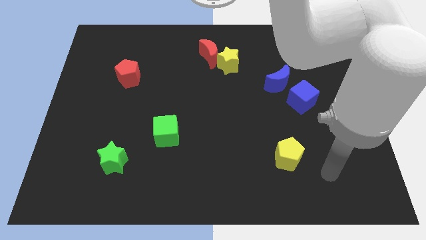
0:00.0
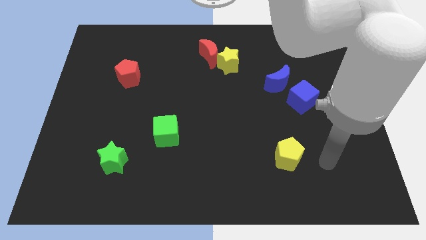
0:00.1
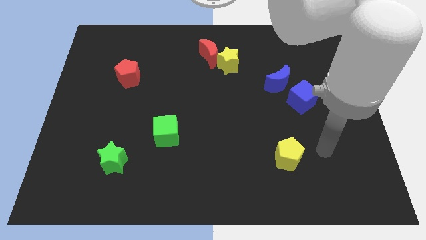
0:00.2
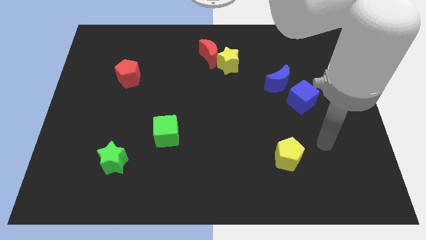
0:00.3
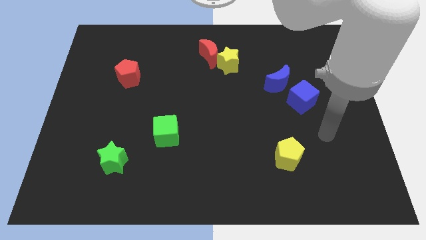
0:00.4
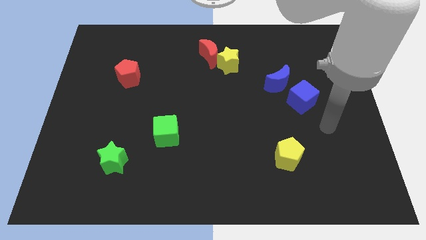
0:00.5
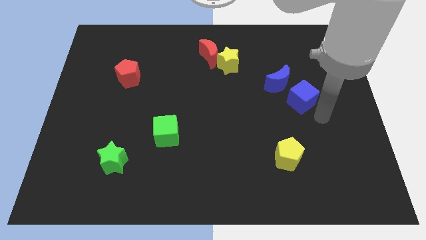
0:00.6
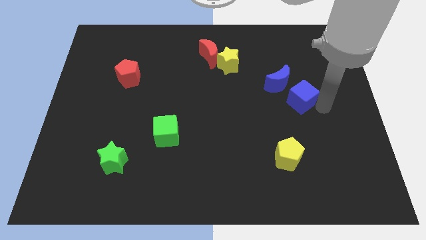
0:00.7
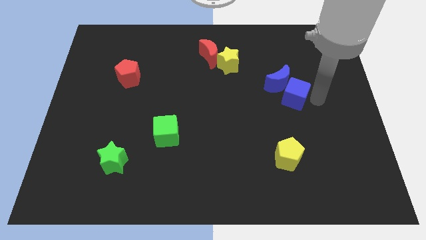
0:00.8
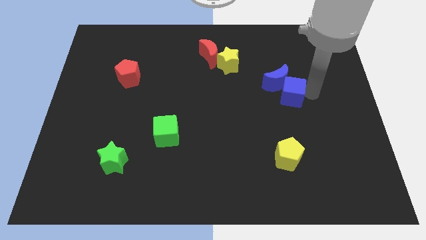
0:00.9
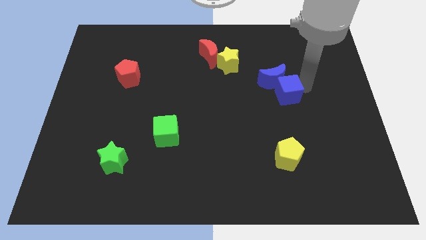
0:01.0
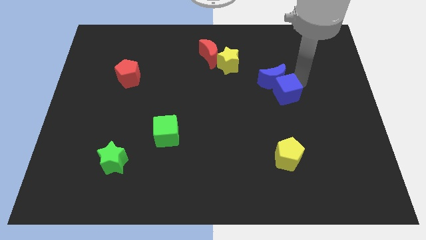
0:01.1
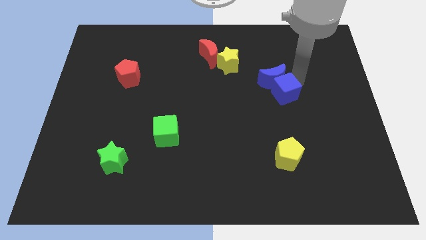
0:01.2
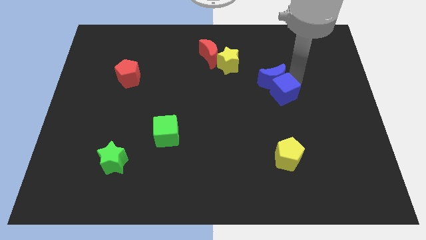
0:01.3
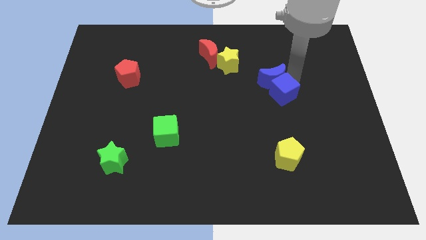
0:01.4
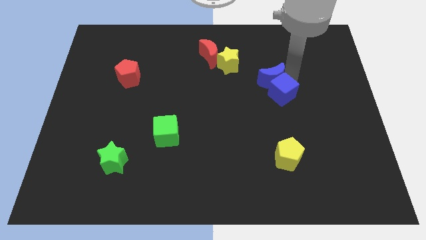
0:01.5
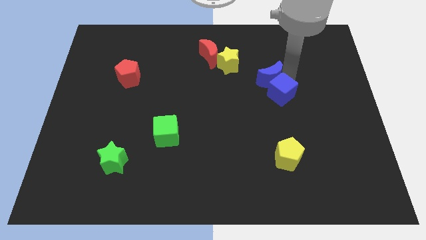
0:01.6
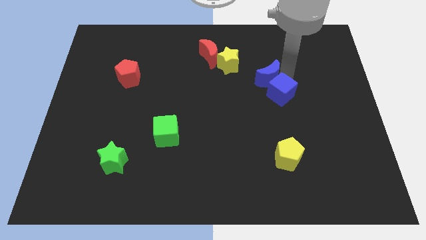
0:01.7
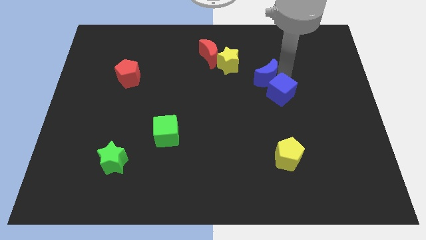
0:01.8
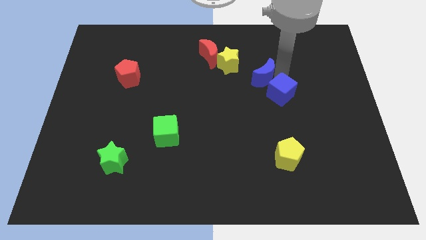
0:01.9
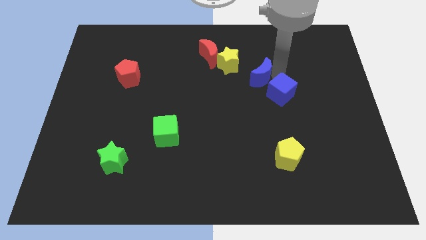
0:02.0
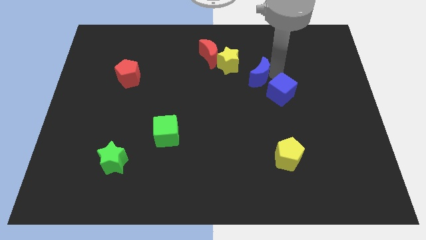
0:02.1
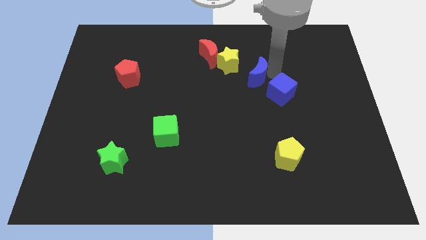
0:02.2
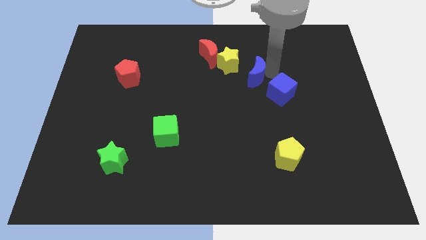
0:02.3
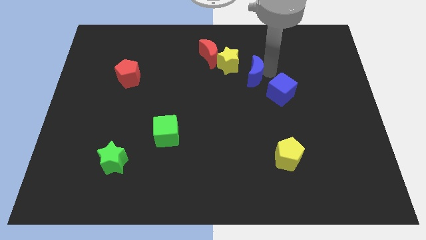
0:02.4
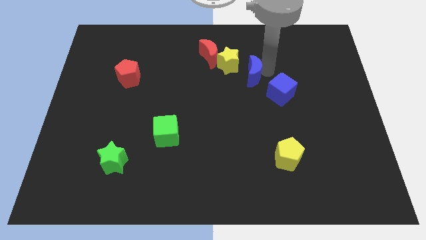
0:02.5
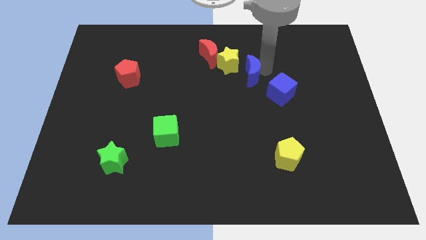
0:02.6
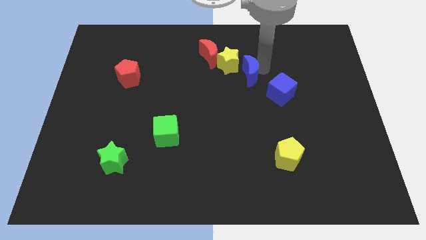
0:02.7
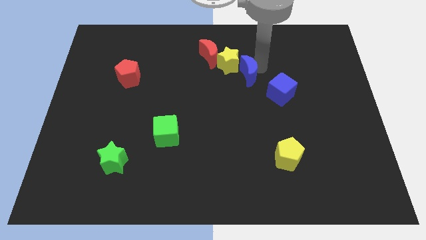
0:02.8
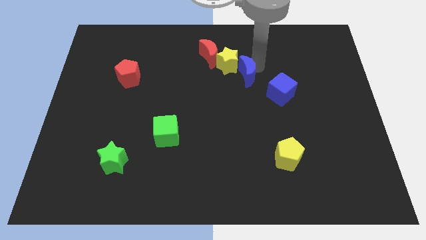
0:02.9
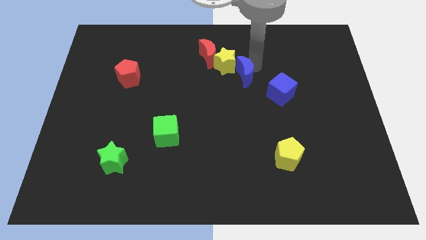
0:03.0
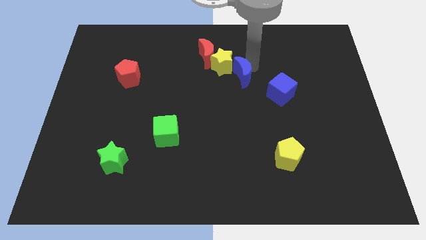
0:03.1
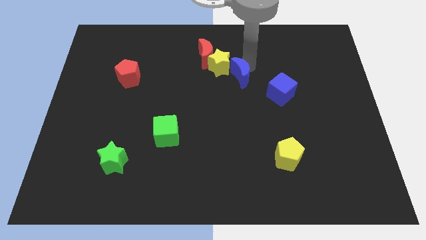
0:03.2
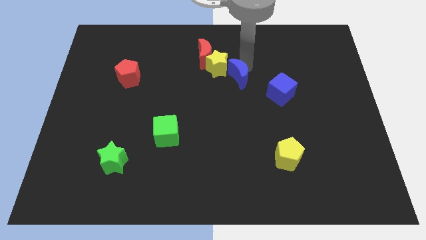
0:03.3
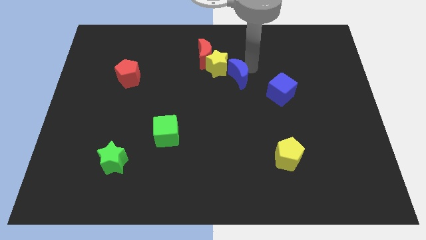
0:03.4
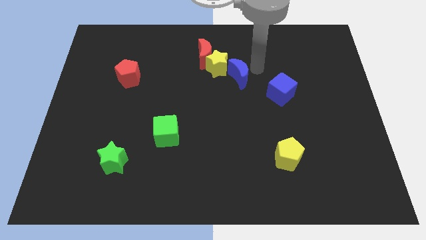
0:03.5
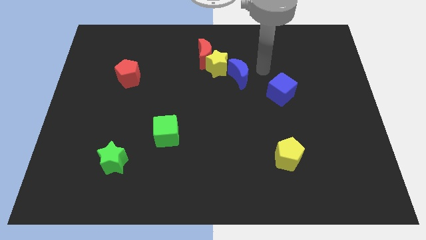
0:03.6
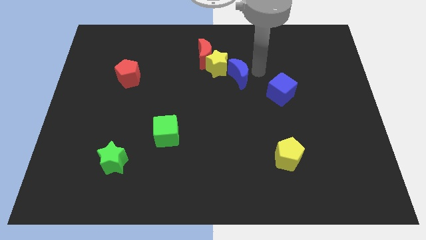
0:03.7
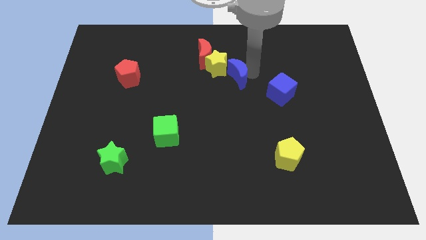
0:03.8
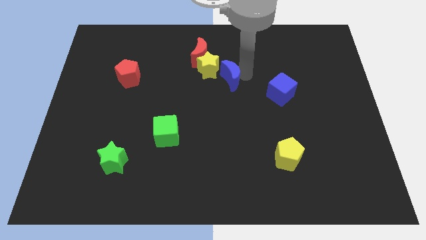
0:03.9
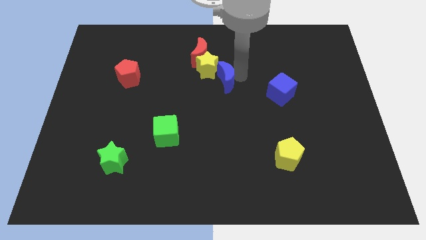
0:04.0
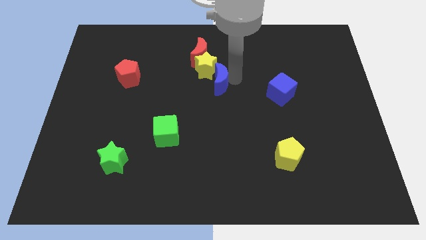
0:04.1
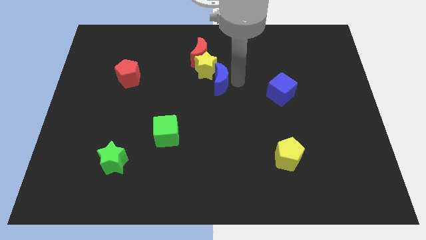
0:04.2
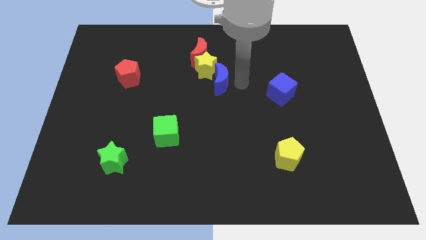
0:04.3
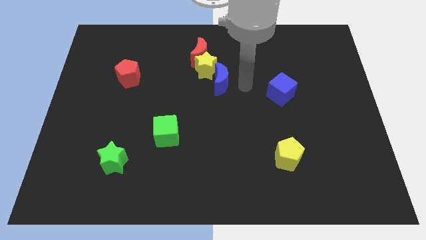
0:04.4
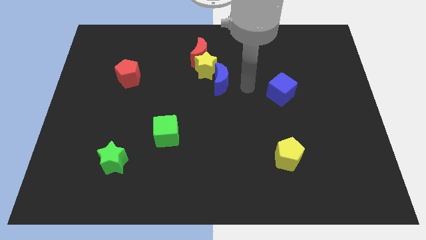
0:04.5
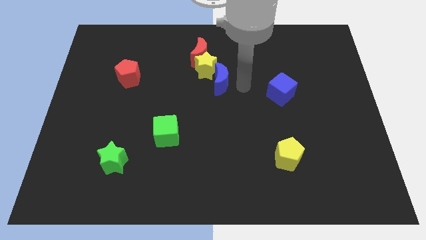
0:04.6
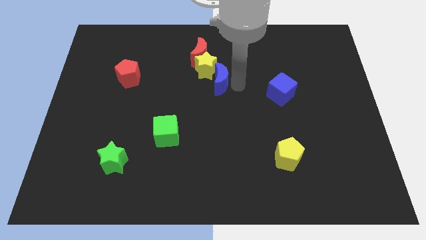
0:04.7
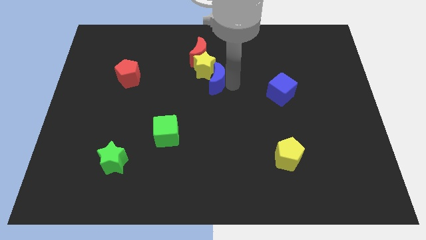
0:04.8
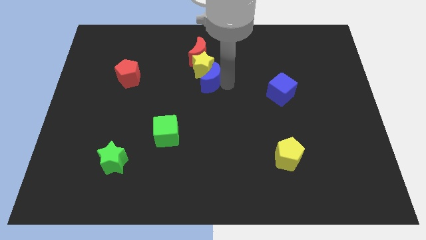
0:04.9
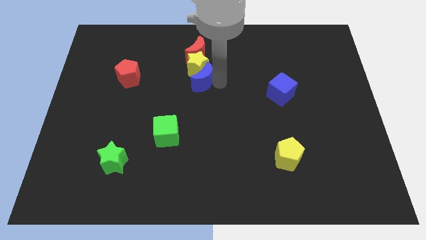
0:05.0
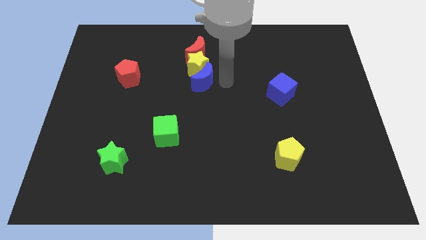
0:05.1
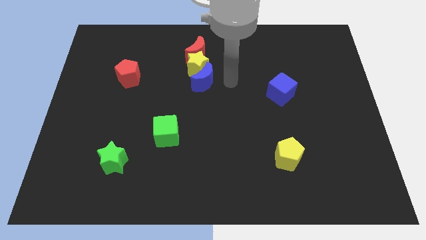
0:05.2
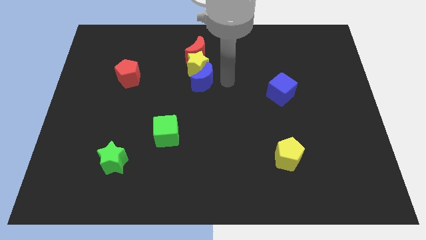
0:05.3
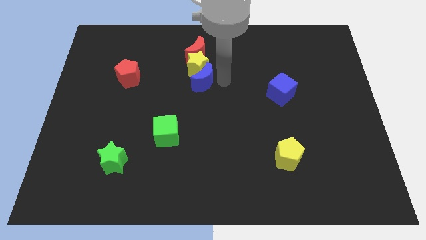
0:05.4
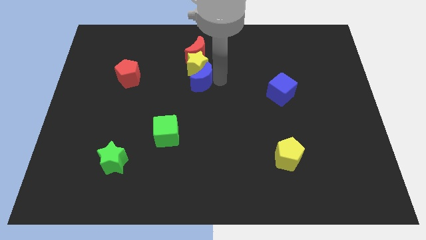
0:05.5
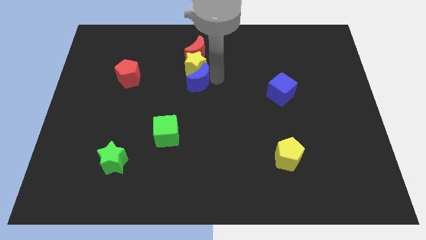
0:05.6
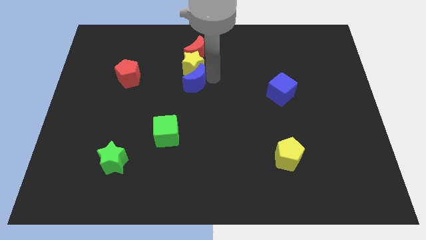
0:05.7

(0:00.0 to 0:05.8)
push the blue moon to the left

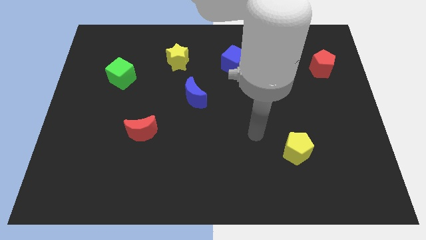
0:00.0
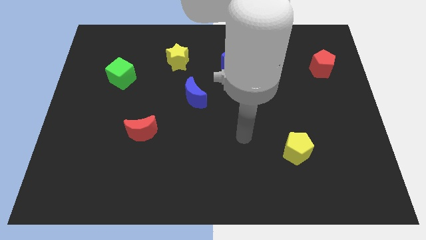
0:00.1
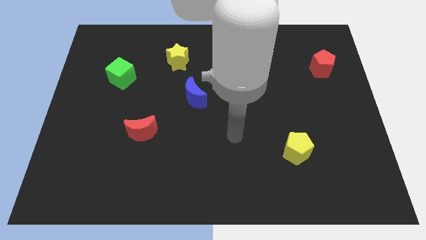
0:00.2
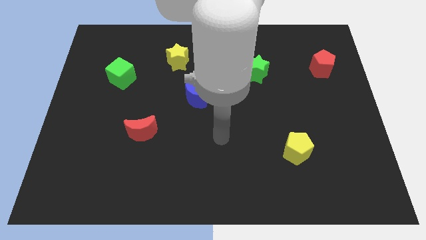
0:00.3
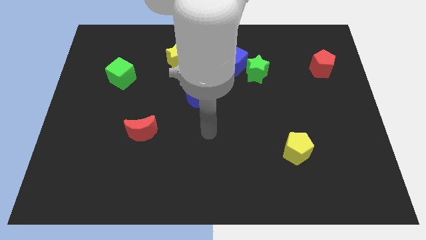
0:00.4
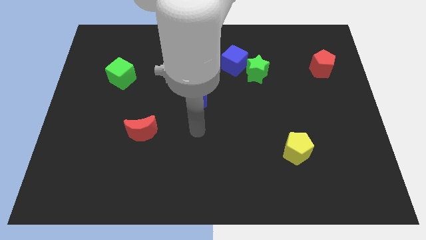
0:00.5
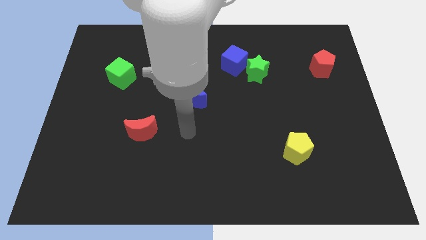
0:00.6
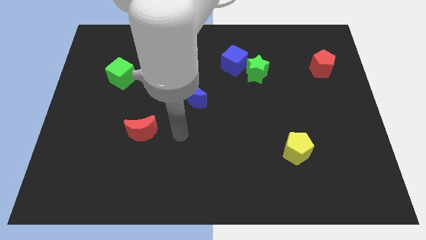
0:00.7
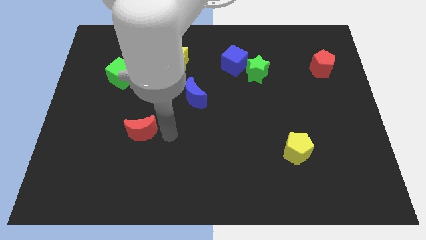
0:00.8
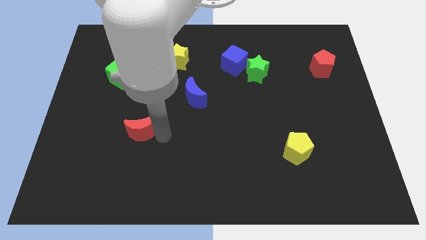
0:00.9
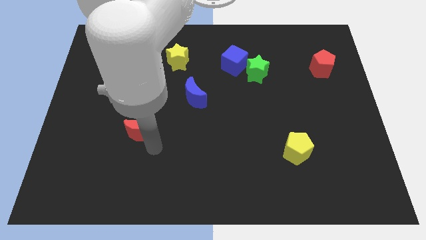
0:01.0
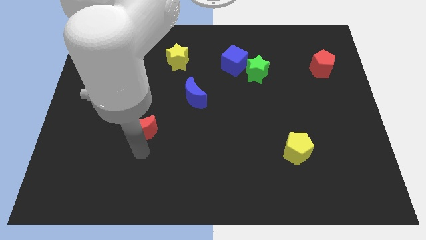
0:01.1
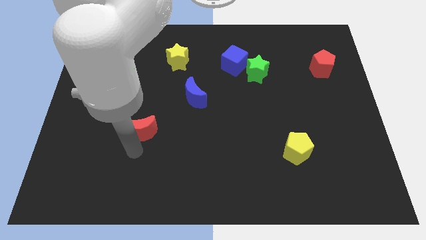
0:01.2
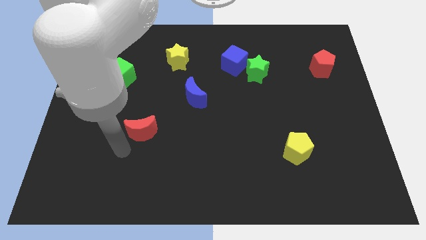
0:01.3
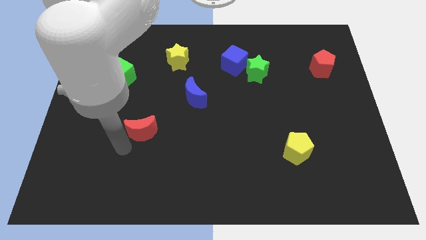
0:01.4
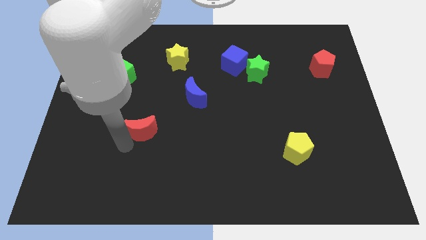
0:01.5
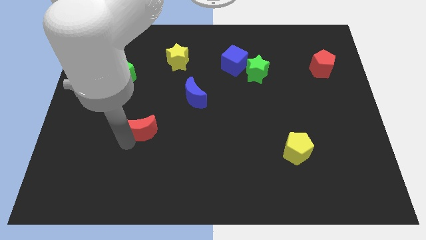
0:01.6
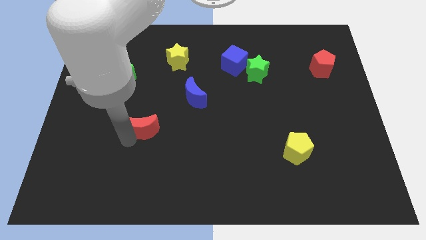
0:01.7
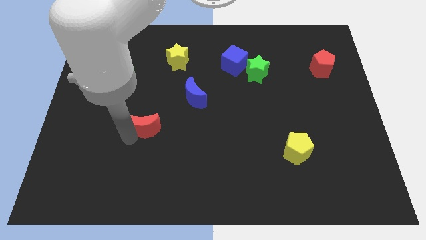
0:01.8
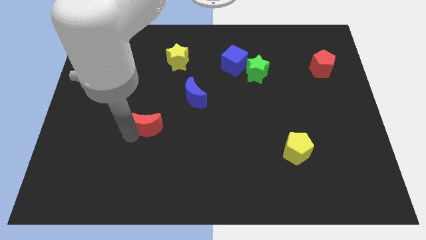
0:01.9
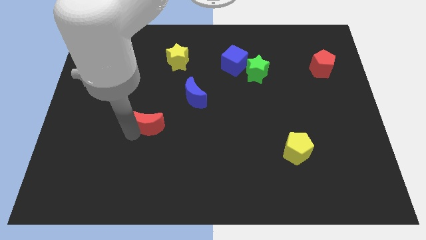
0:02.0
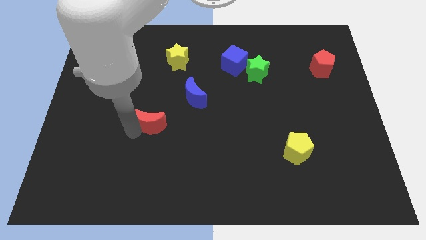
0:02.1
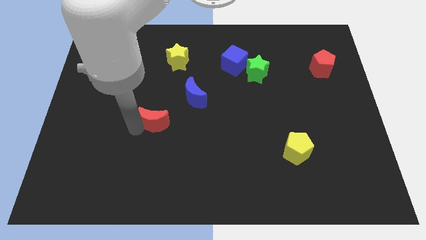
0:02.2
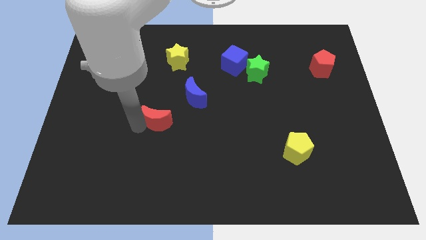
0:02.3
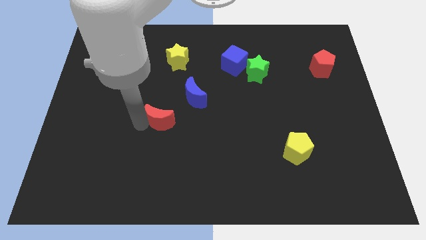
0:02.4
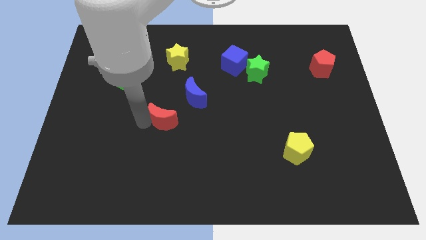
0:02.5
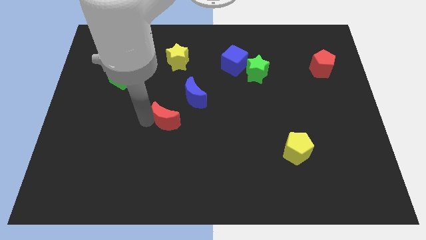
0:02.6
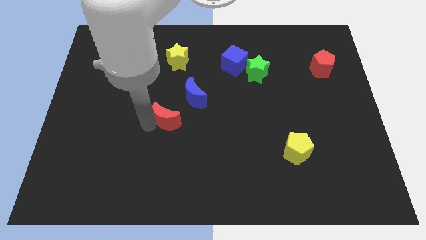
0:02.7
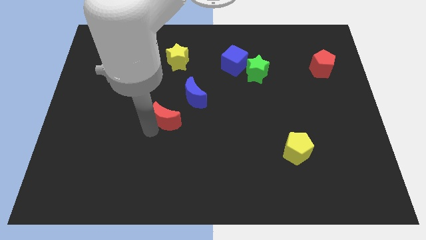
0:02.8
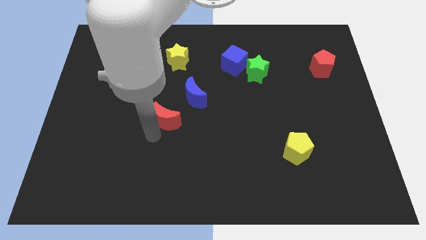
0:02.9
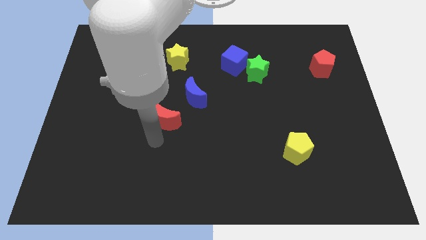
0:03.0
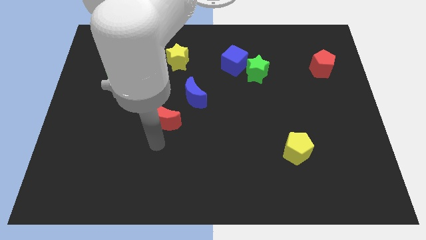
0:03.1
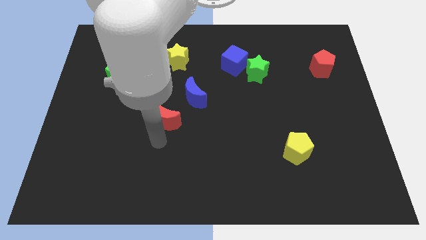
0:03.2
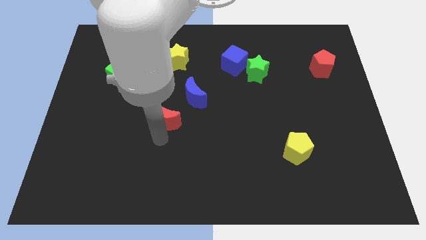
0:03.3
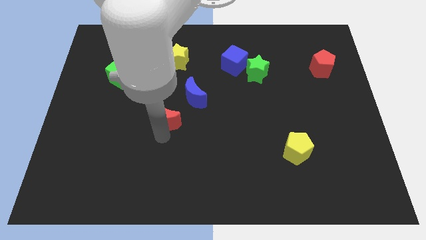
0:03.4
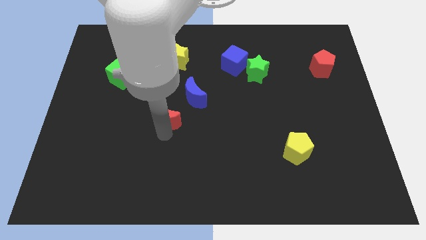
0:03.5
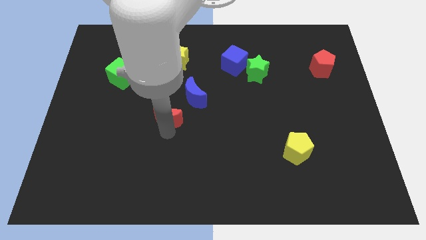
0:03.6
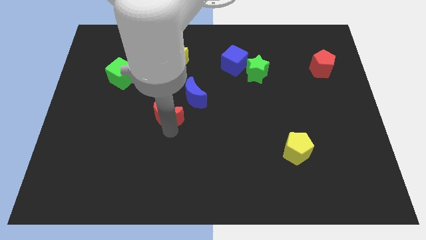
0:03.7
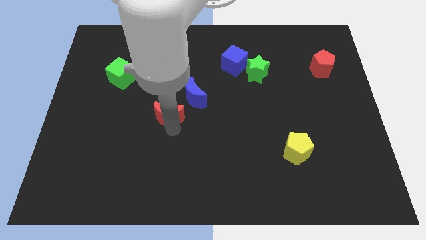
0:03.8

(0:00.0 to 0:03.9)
push the red moon diagonally upwards and right a bit
